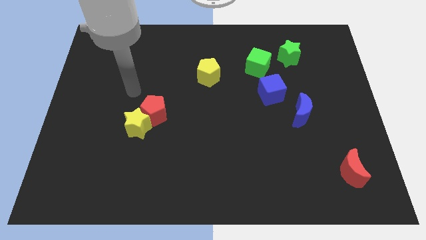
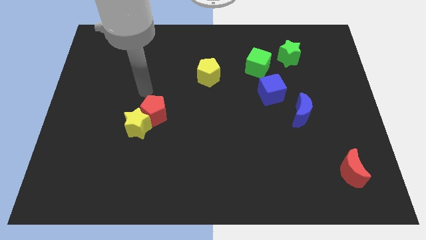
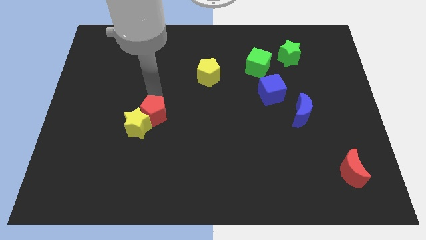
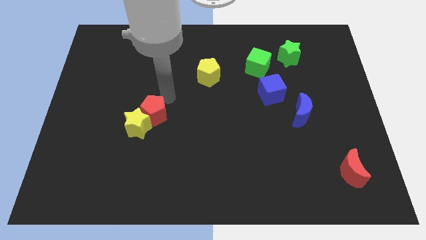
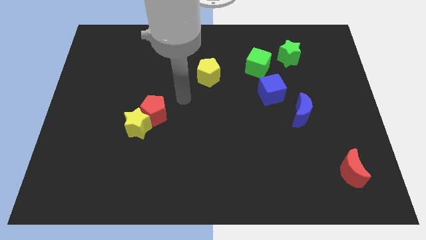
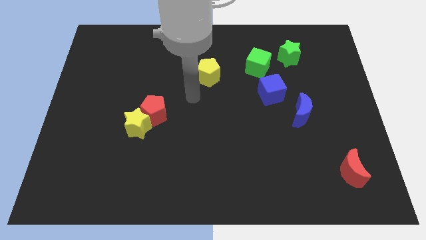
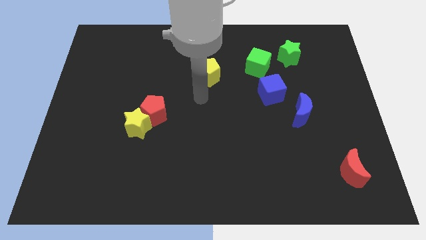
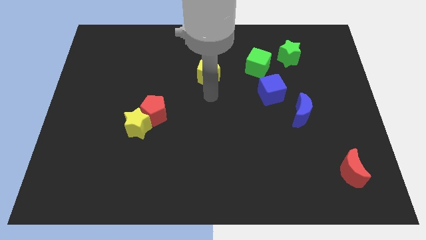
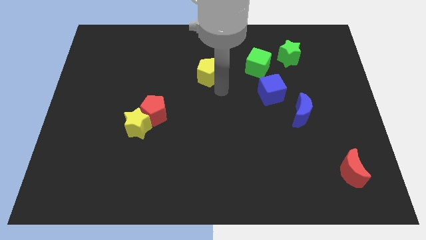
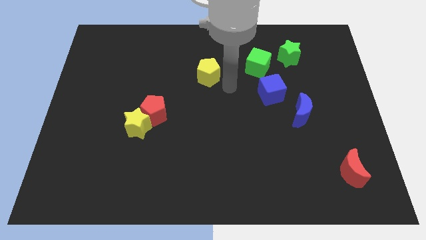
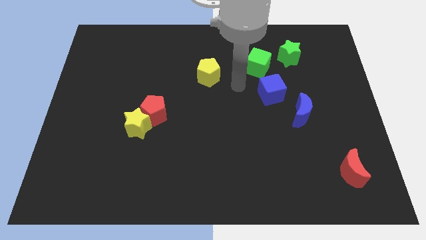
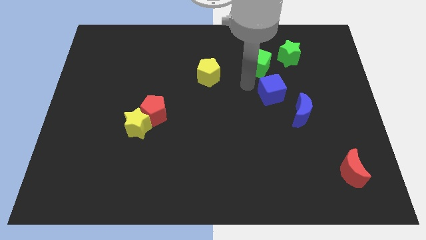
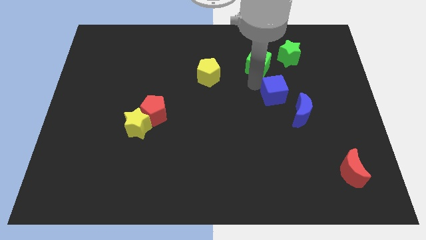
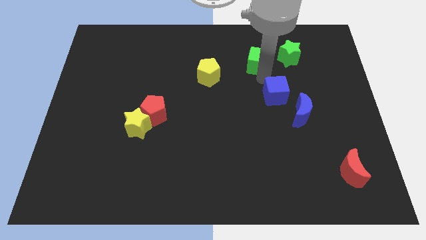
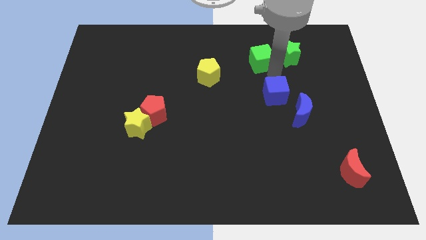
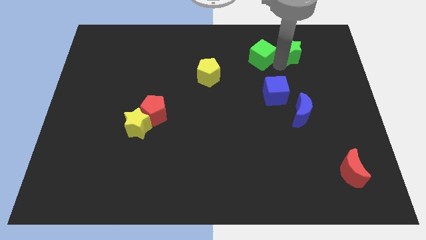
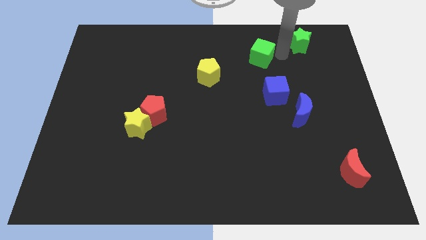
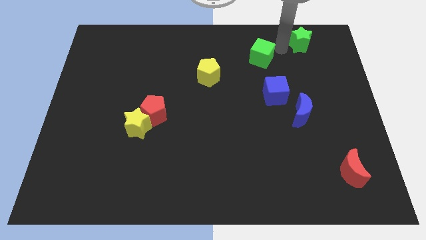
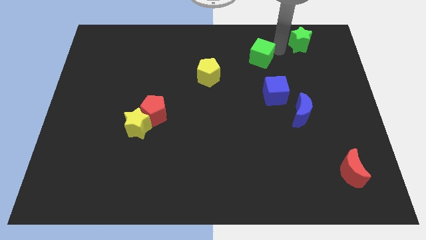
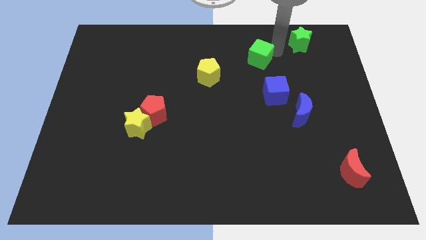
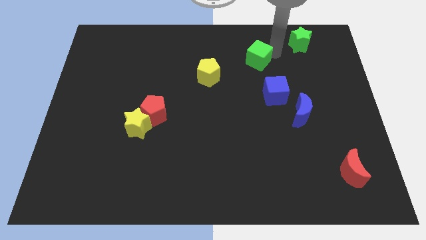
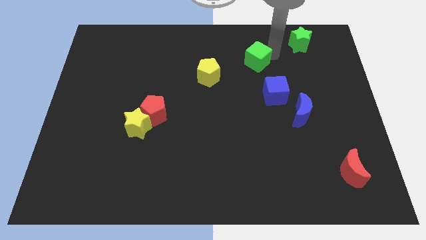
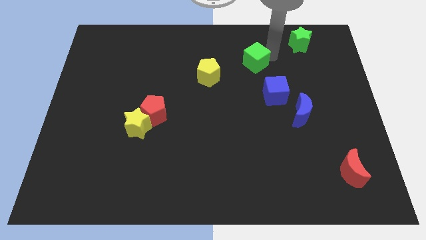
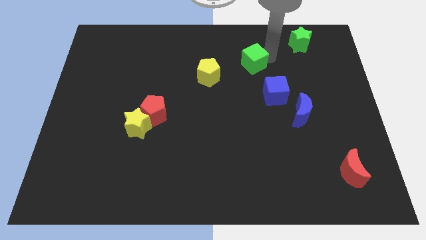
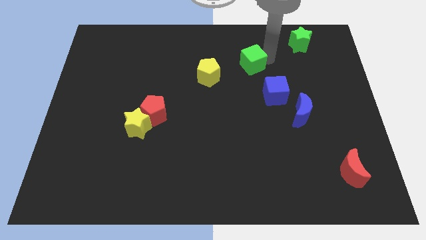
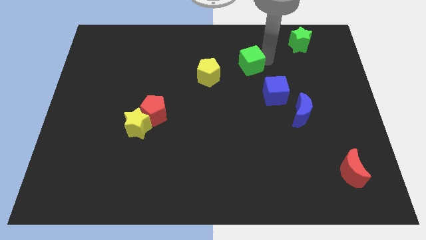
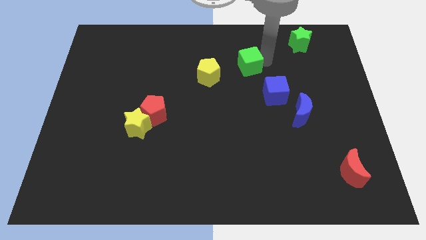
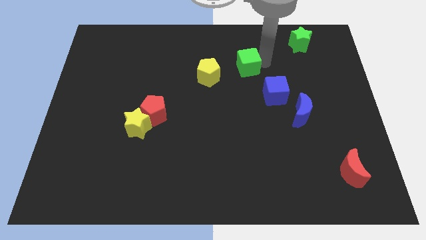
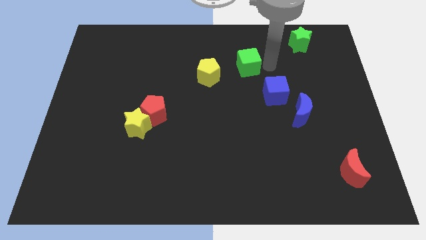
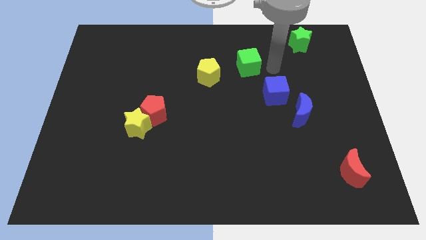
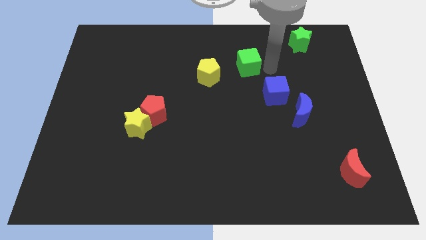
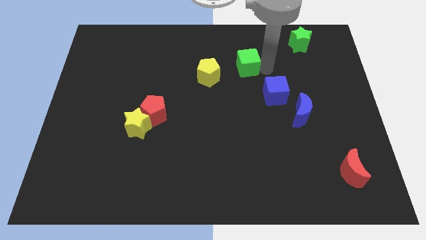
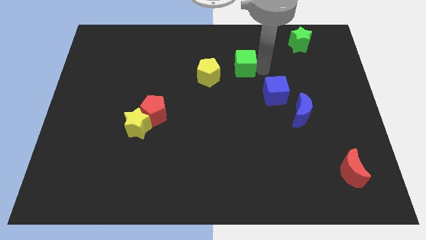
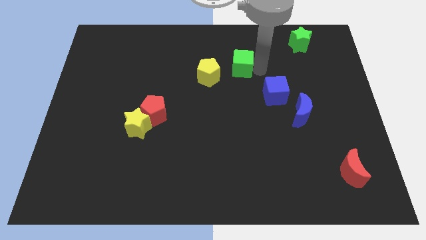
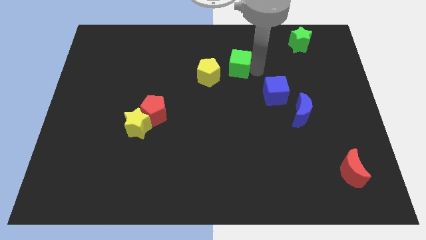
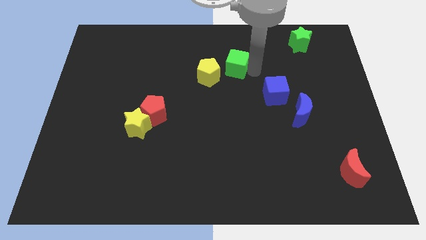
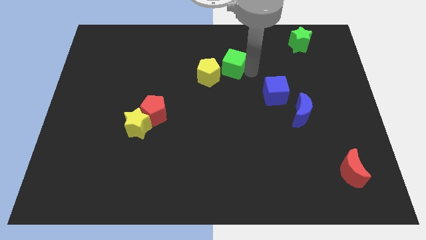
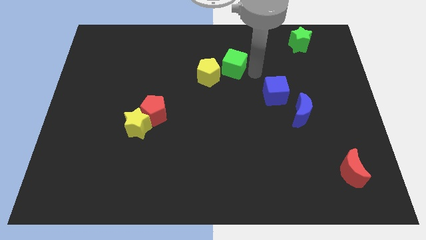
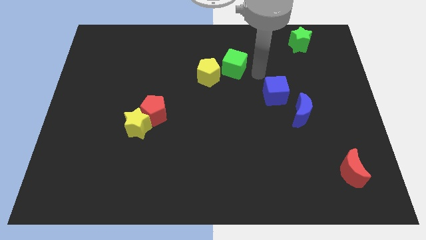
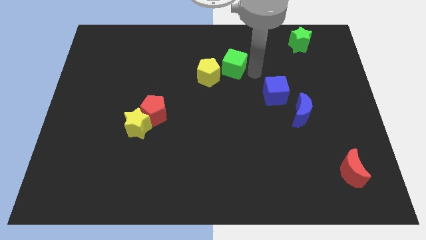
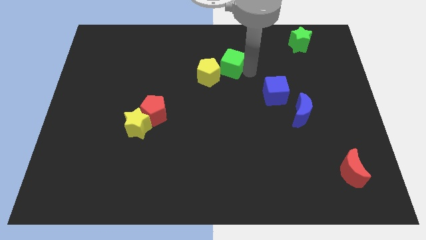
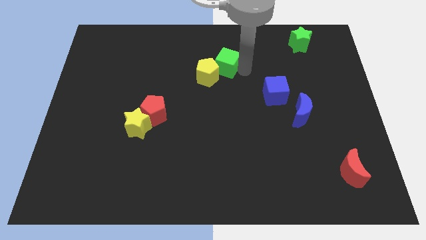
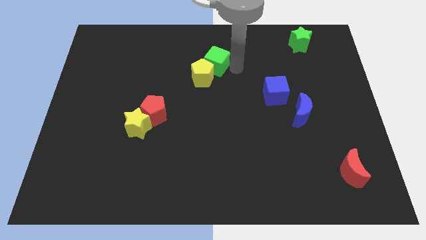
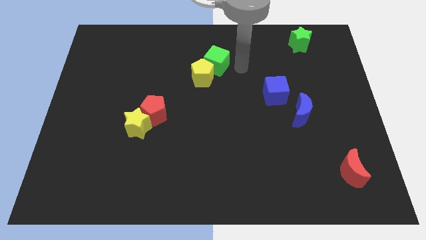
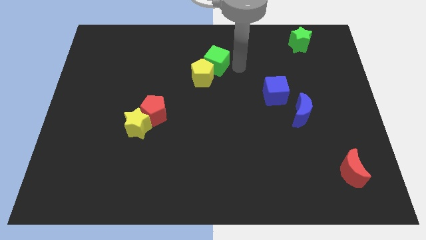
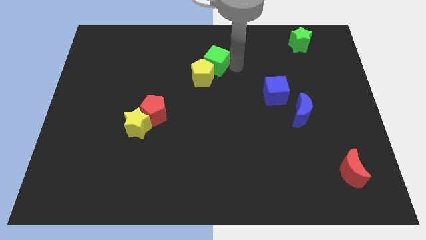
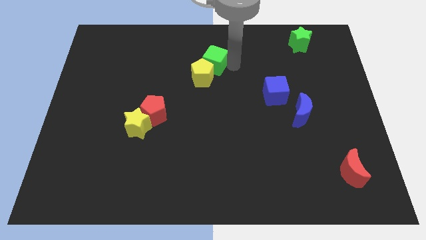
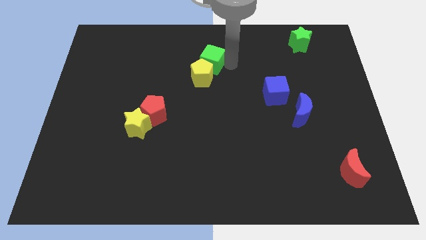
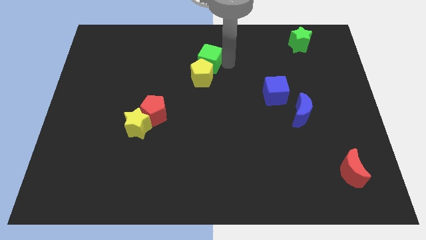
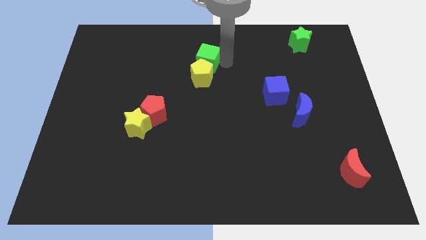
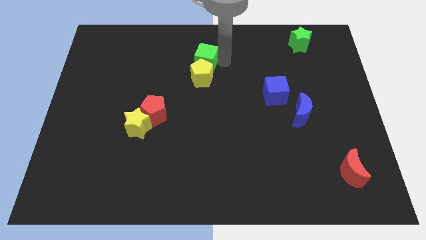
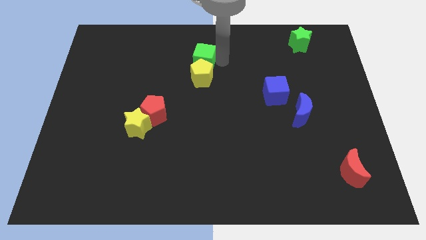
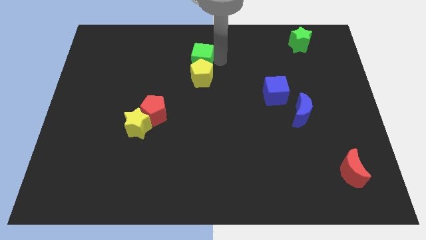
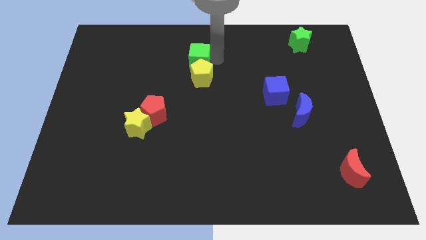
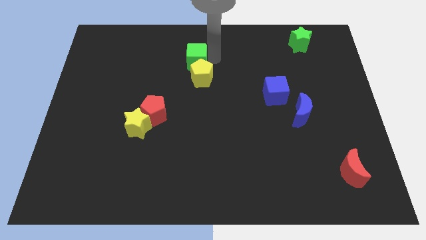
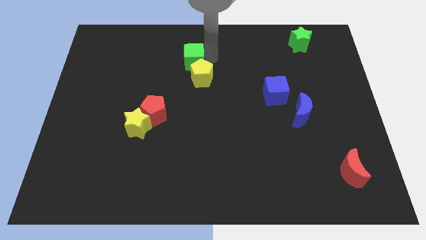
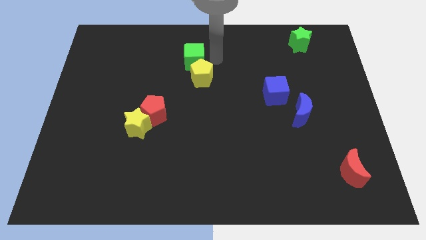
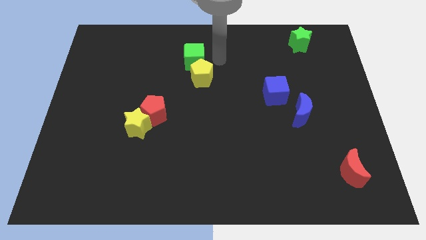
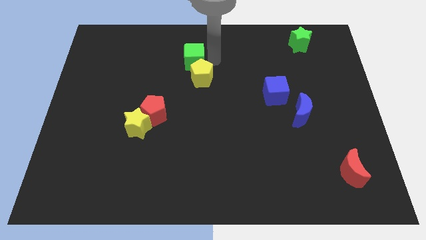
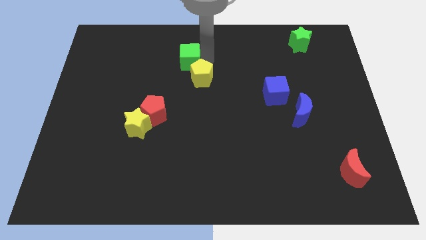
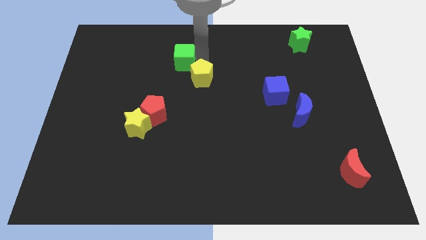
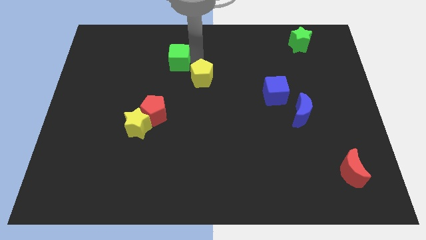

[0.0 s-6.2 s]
push the green cube left

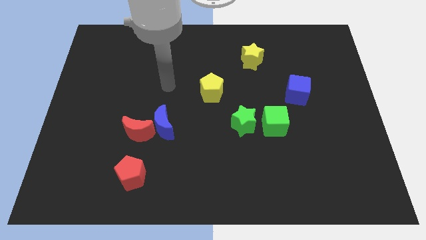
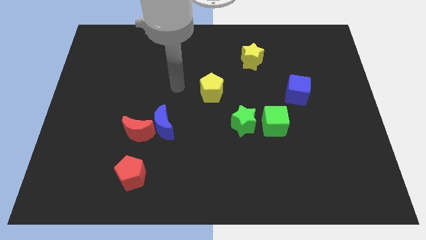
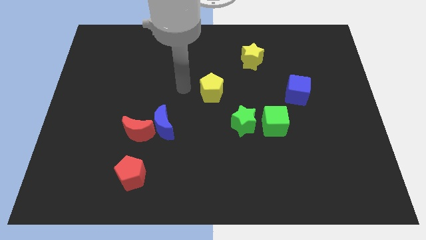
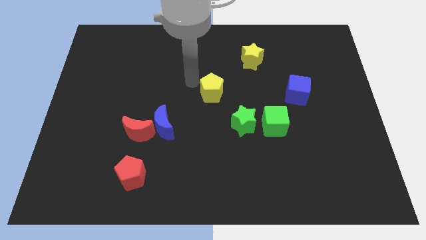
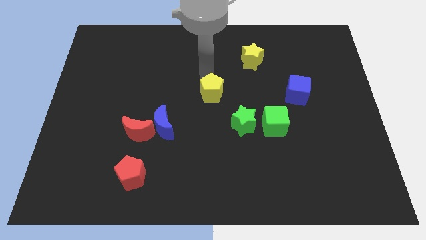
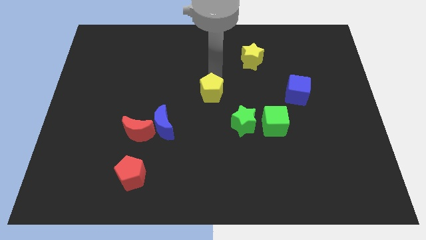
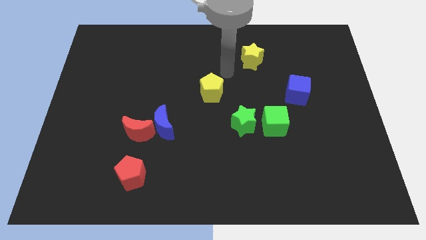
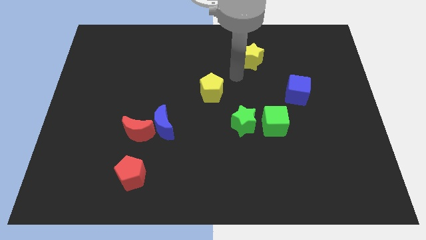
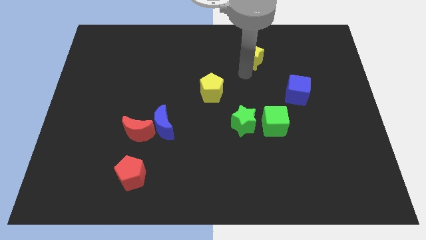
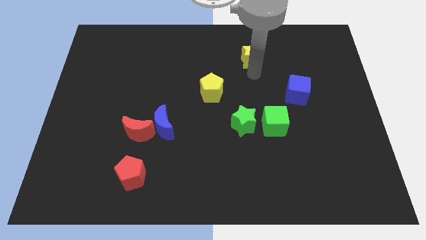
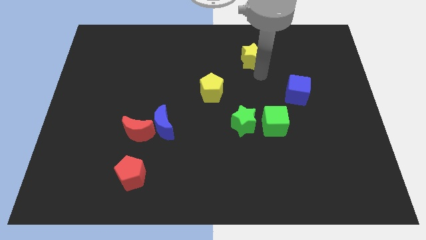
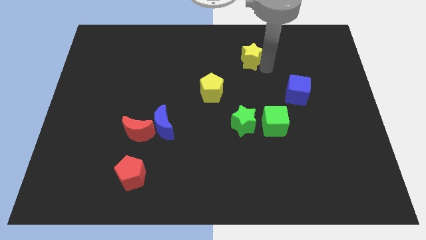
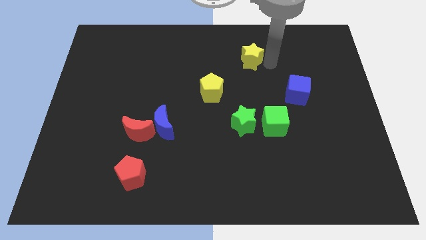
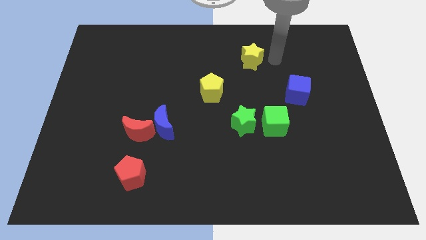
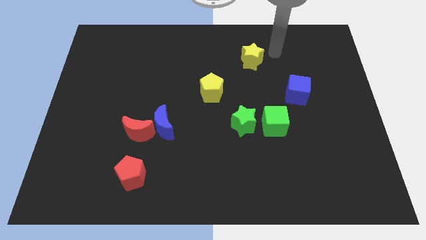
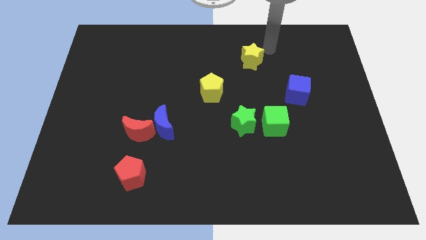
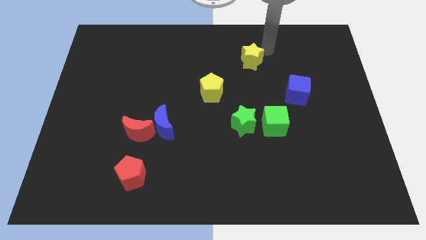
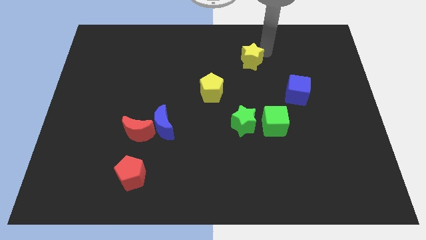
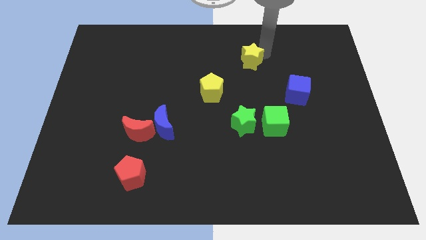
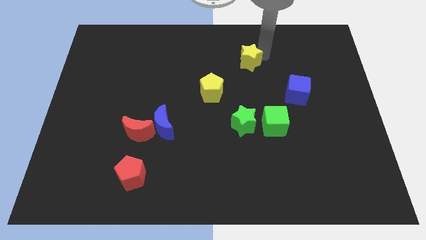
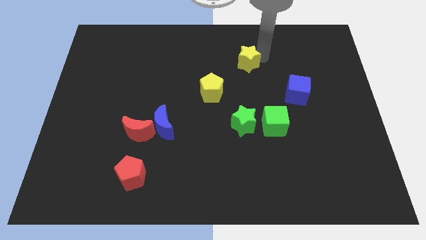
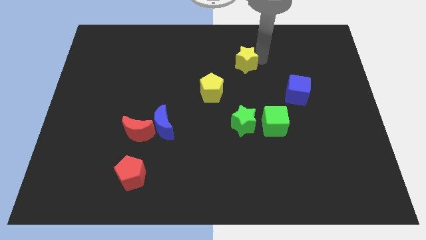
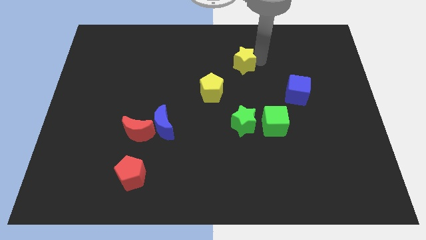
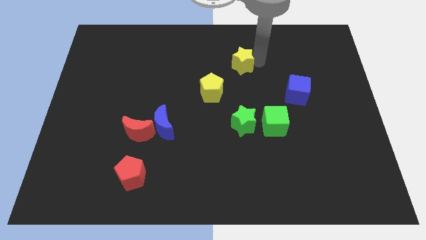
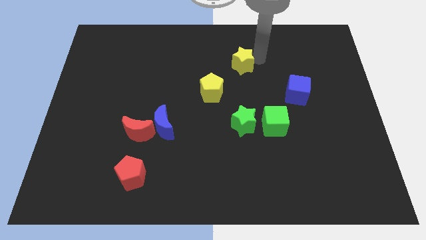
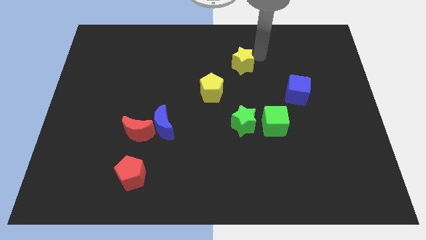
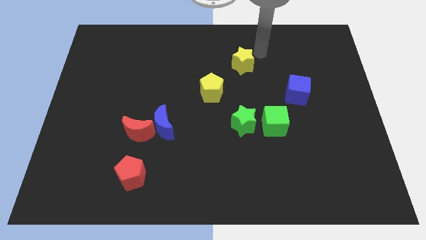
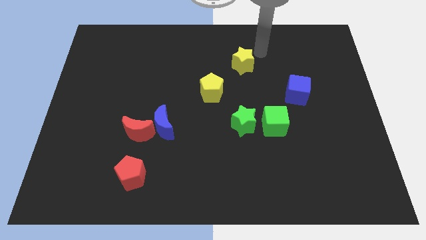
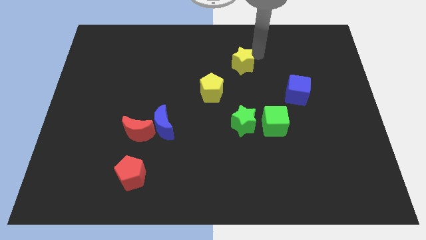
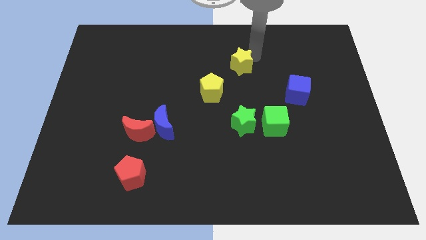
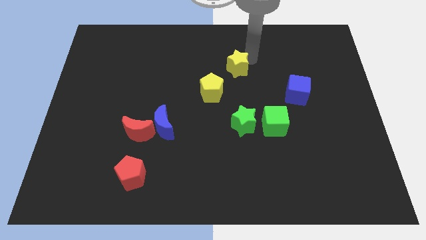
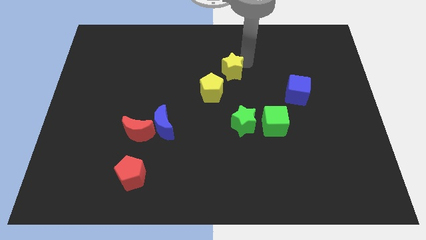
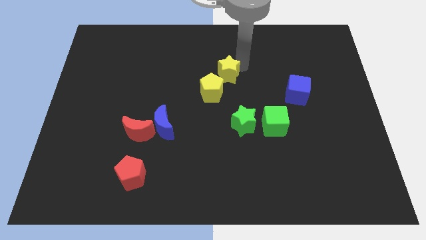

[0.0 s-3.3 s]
slightly slide the yellow star down and then to the left
